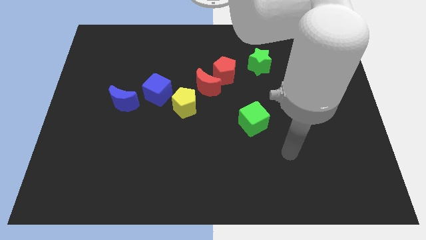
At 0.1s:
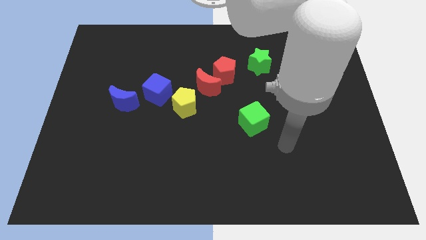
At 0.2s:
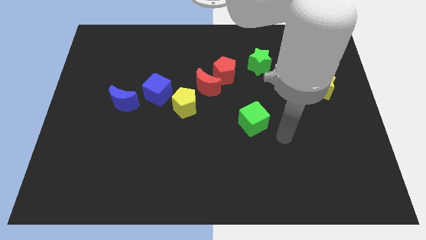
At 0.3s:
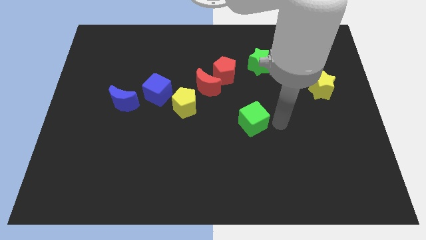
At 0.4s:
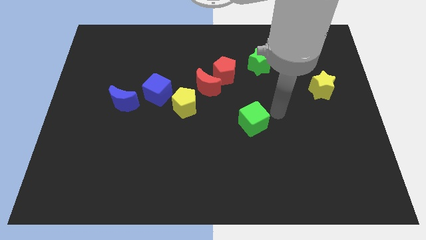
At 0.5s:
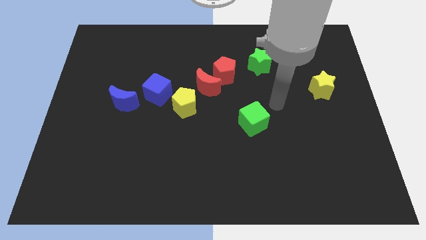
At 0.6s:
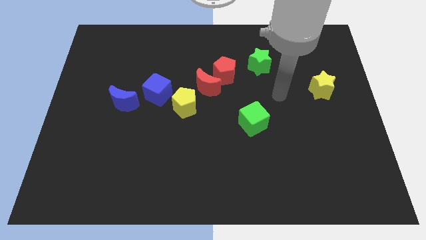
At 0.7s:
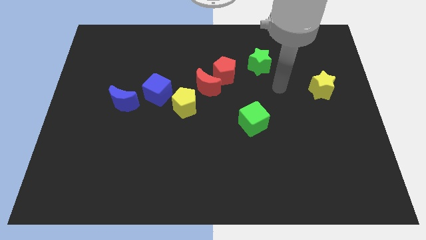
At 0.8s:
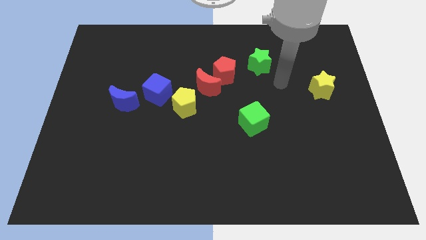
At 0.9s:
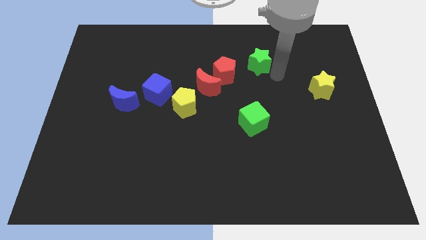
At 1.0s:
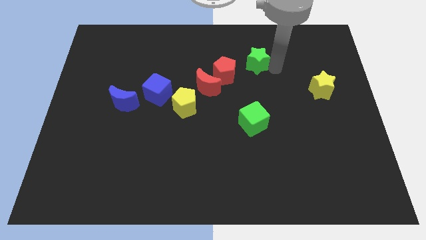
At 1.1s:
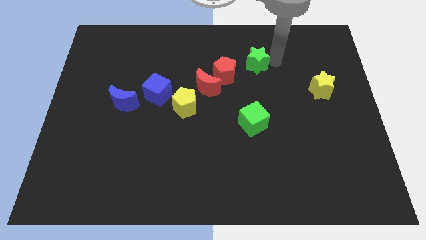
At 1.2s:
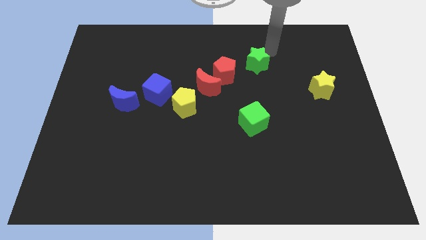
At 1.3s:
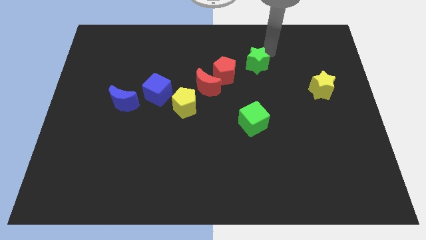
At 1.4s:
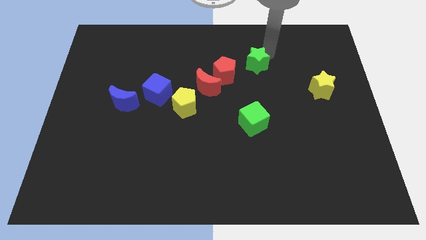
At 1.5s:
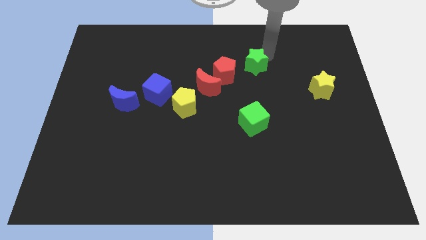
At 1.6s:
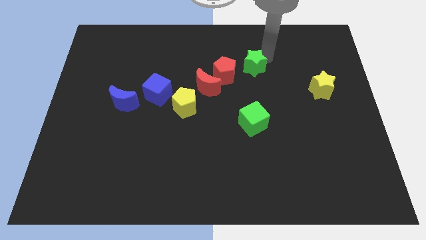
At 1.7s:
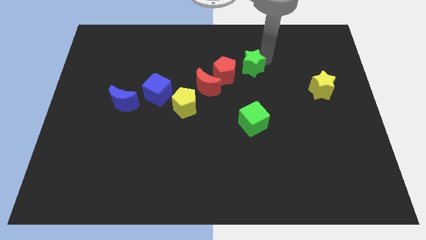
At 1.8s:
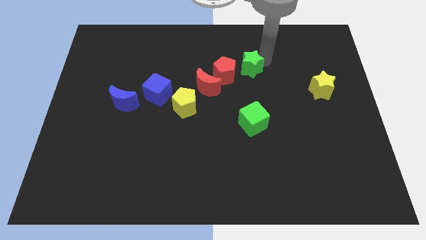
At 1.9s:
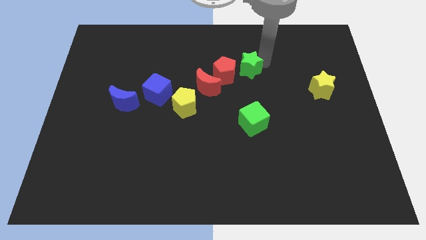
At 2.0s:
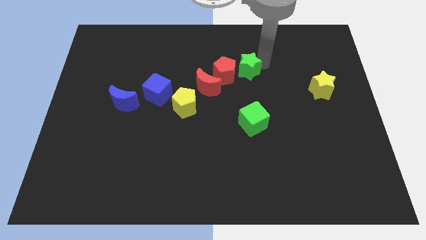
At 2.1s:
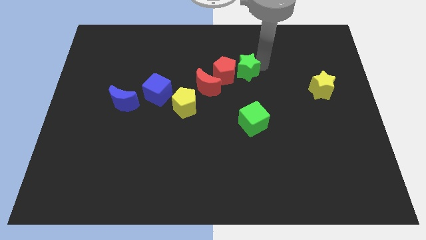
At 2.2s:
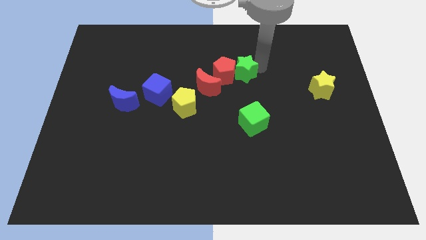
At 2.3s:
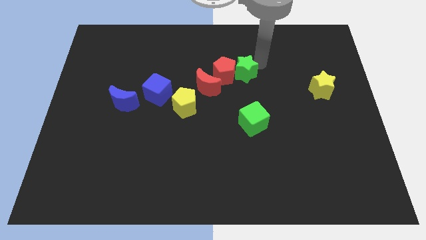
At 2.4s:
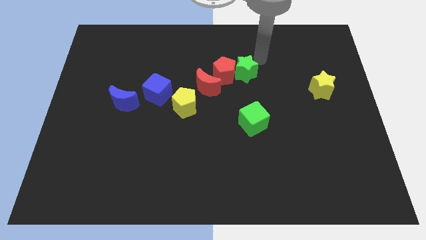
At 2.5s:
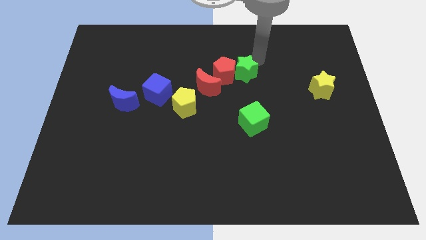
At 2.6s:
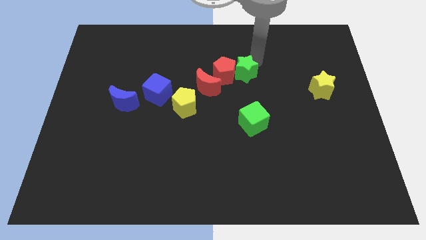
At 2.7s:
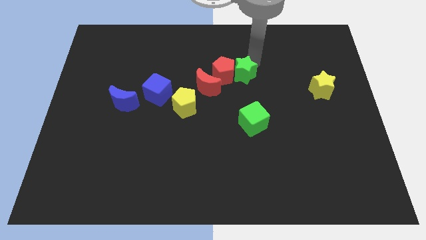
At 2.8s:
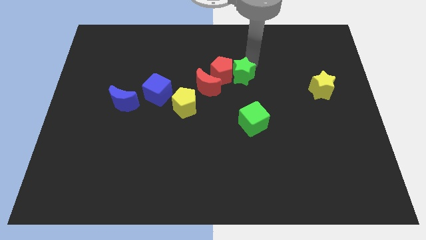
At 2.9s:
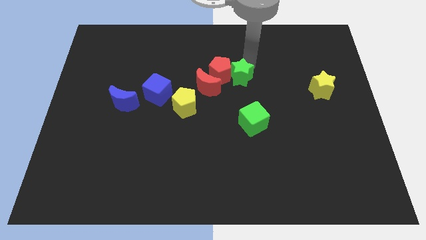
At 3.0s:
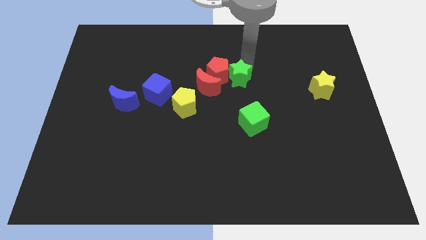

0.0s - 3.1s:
move the green star diagonally down and left a bit

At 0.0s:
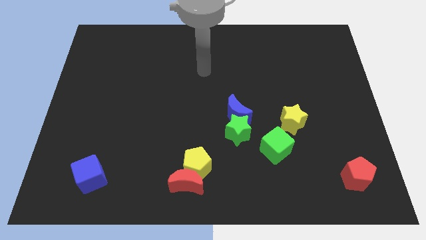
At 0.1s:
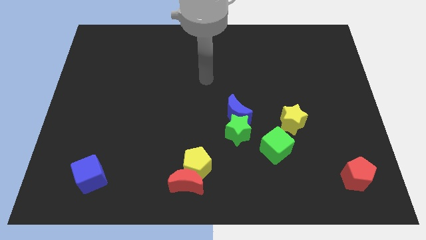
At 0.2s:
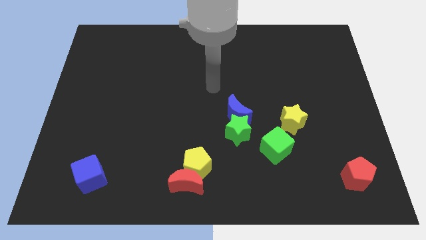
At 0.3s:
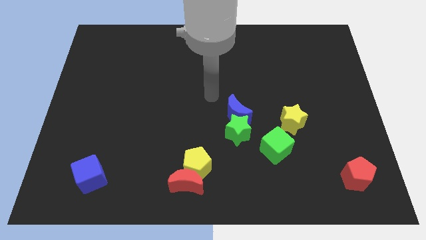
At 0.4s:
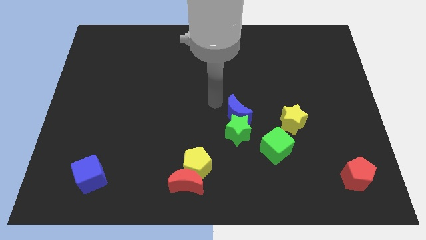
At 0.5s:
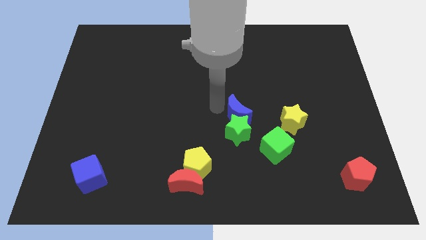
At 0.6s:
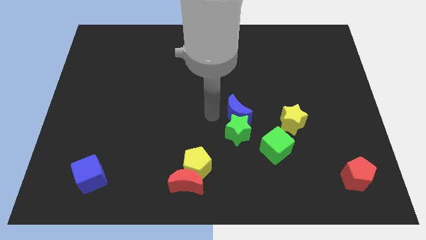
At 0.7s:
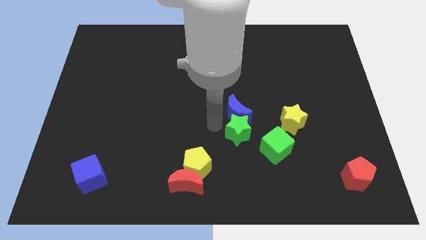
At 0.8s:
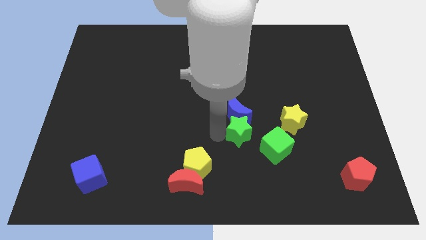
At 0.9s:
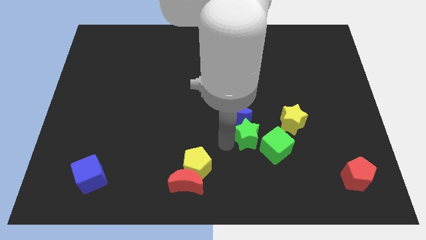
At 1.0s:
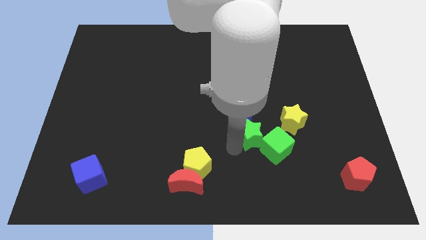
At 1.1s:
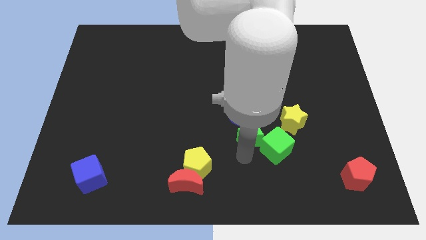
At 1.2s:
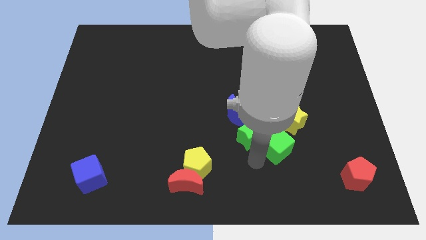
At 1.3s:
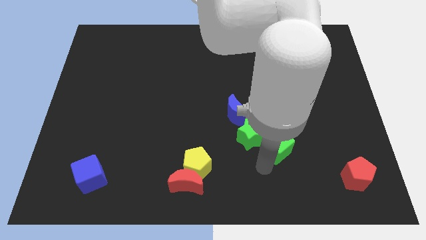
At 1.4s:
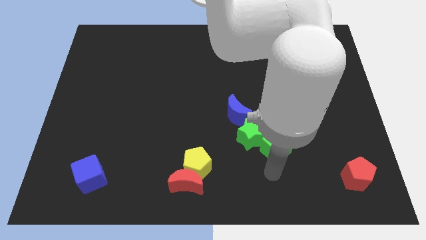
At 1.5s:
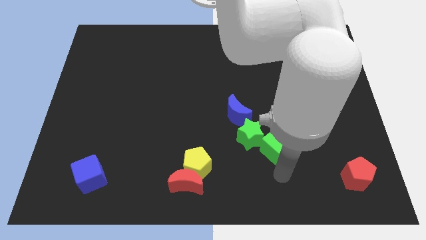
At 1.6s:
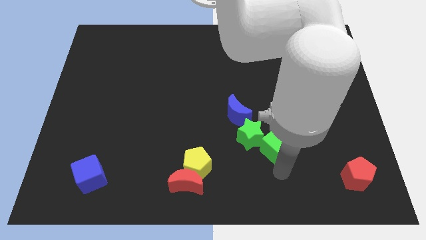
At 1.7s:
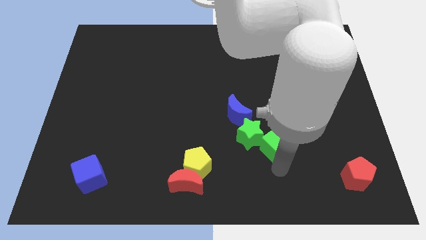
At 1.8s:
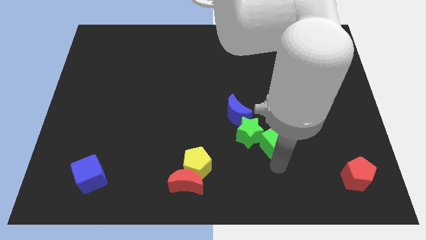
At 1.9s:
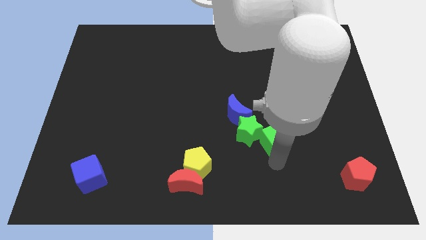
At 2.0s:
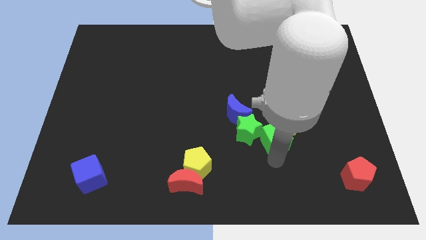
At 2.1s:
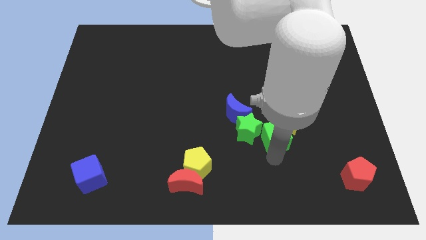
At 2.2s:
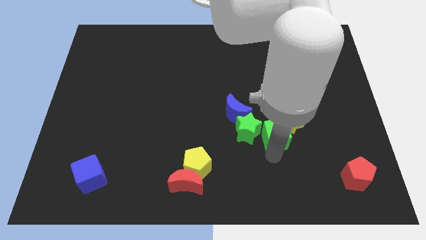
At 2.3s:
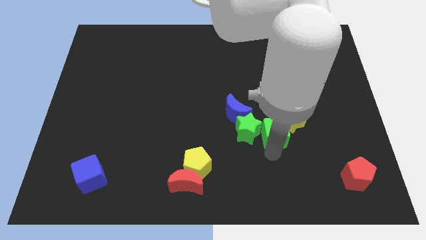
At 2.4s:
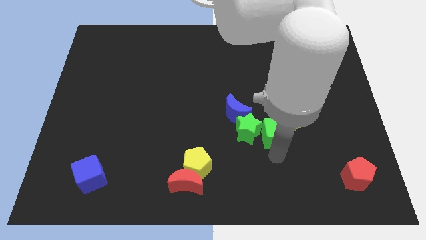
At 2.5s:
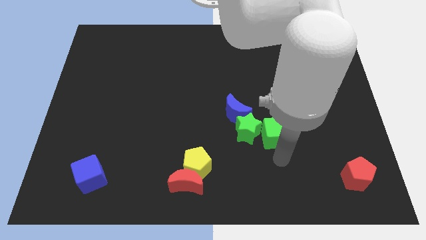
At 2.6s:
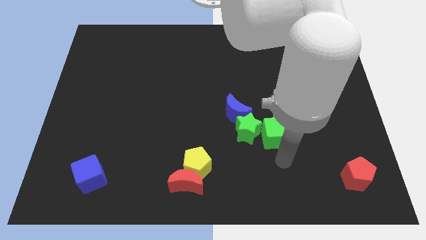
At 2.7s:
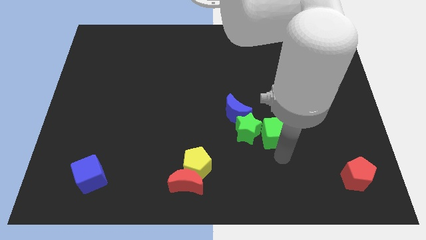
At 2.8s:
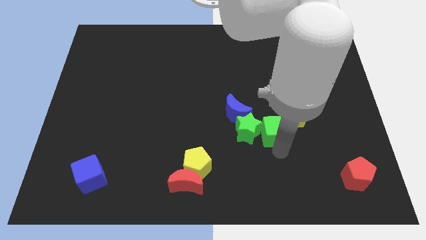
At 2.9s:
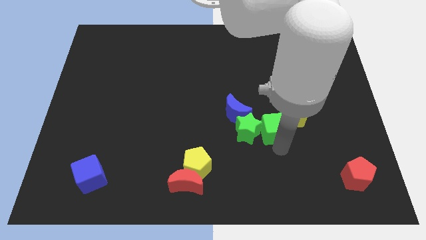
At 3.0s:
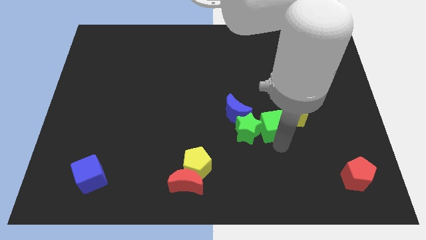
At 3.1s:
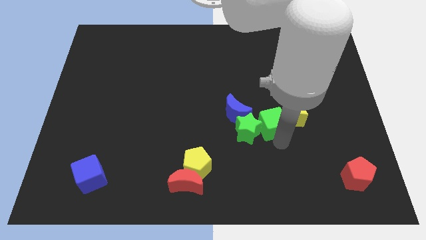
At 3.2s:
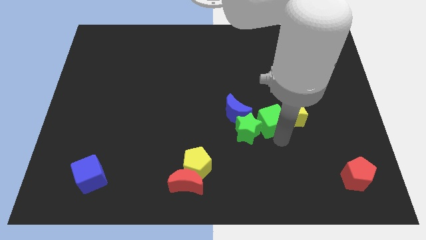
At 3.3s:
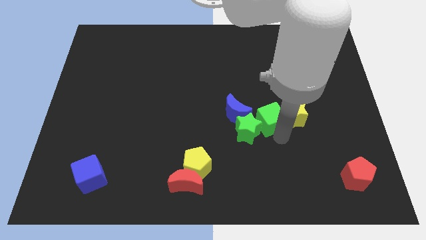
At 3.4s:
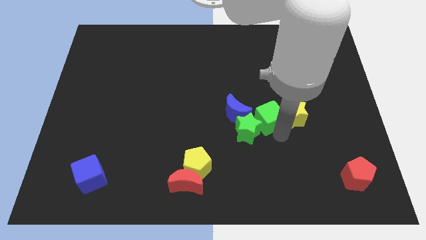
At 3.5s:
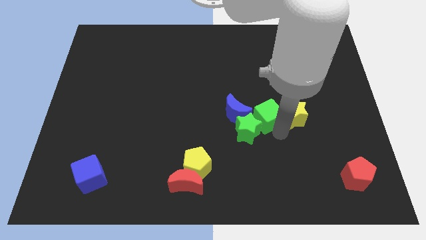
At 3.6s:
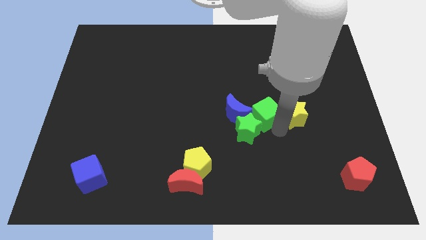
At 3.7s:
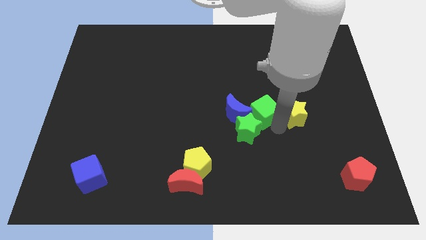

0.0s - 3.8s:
move the green cube up and to the left diagonally somewhat

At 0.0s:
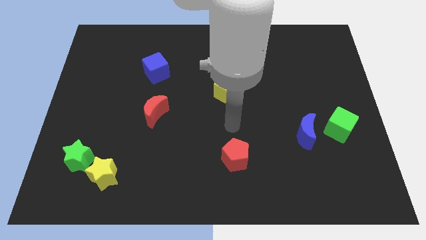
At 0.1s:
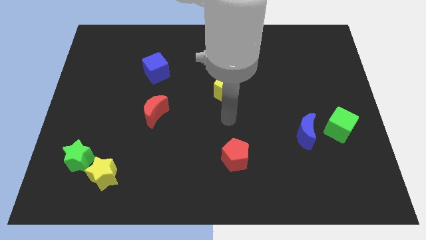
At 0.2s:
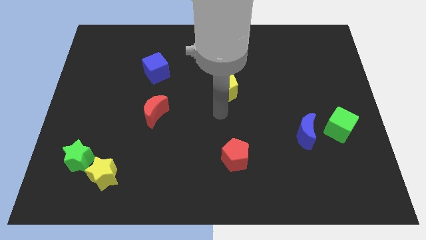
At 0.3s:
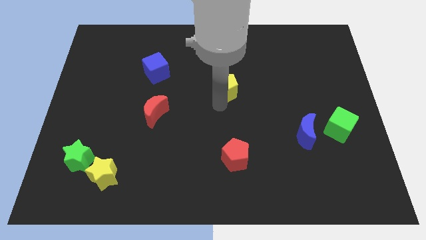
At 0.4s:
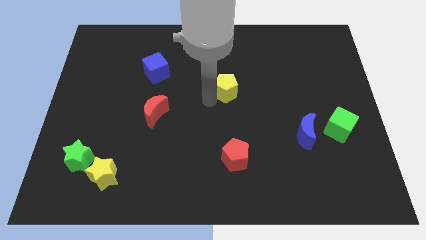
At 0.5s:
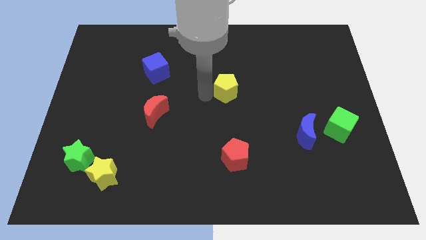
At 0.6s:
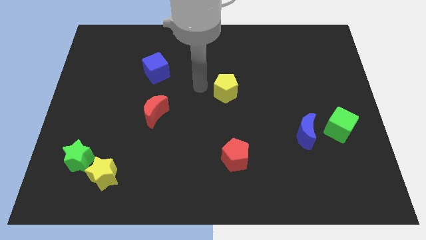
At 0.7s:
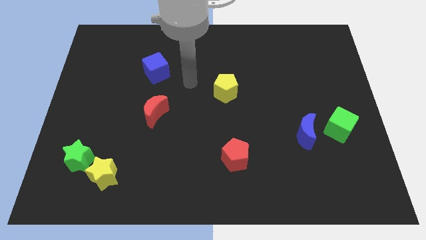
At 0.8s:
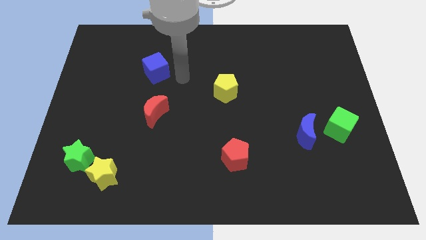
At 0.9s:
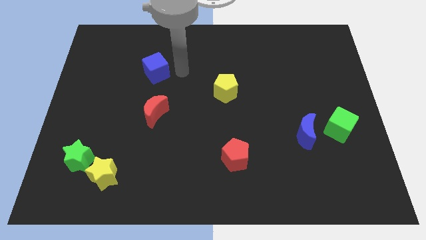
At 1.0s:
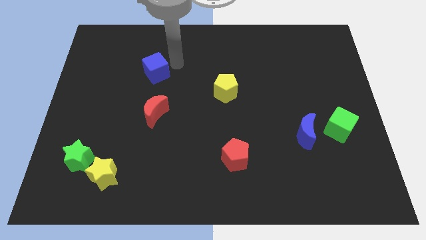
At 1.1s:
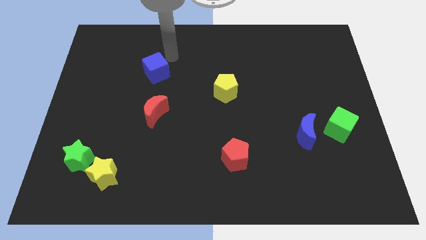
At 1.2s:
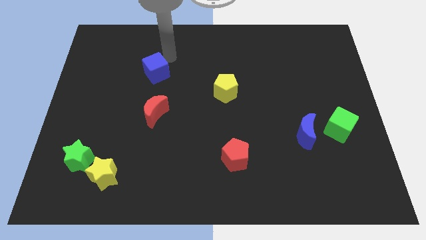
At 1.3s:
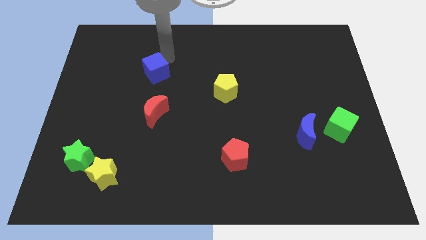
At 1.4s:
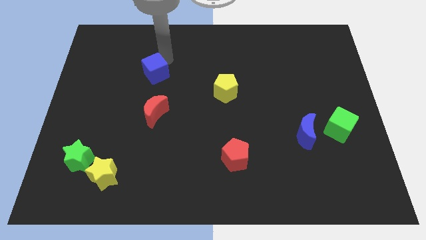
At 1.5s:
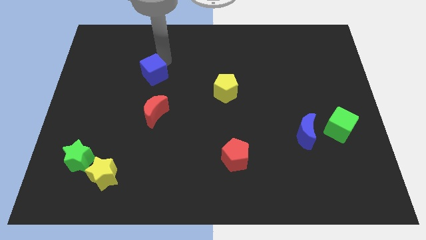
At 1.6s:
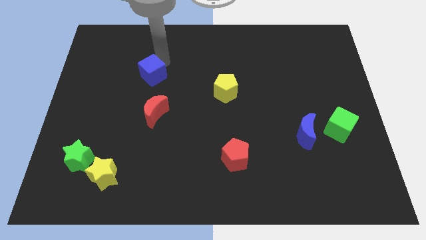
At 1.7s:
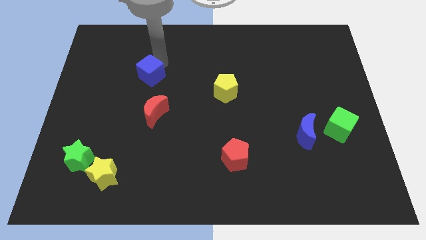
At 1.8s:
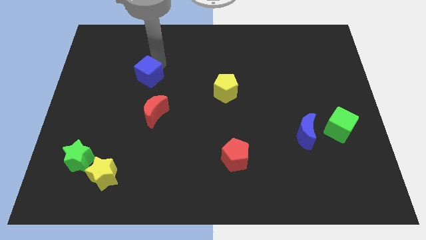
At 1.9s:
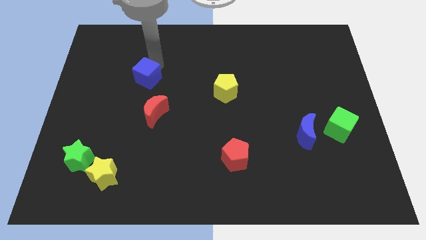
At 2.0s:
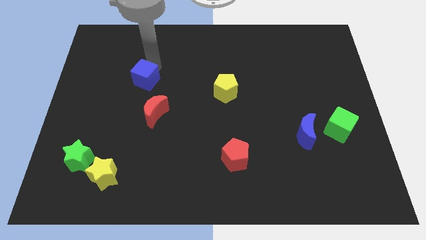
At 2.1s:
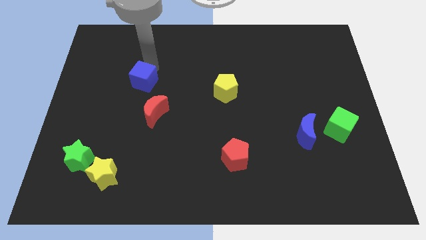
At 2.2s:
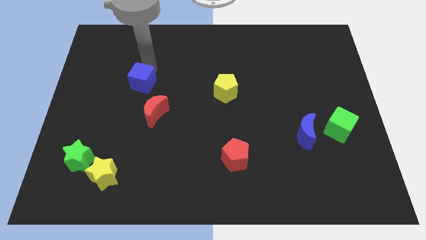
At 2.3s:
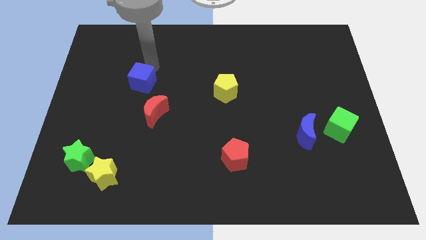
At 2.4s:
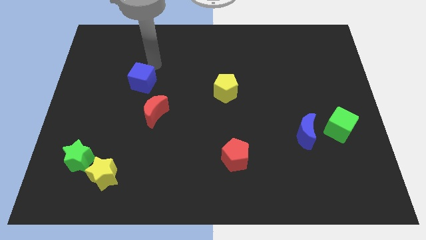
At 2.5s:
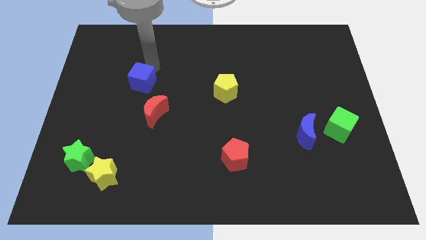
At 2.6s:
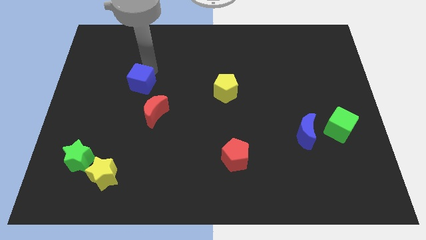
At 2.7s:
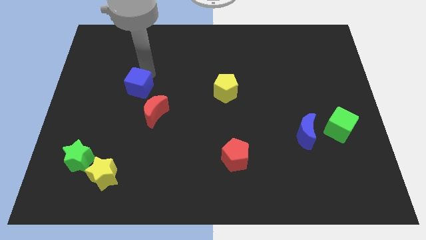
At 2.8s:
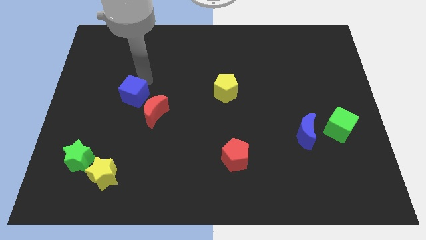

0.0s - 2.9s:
slightly slide the blue cube diagonally down and to the left
